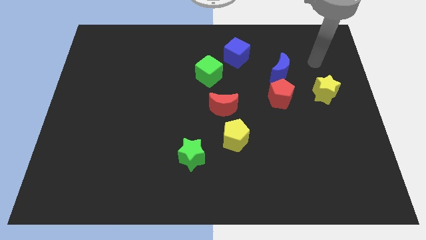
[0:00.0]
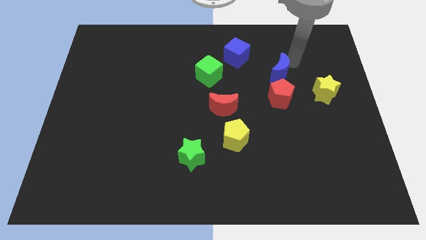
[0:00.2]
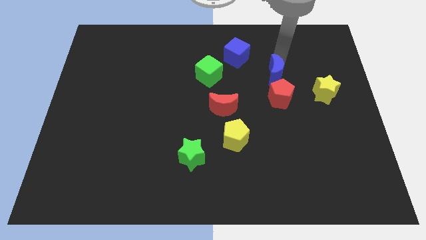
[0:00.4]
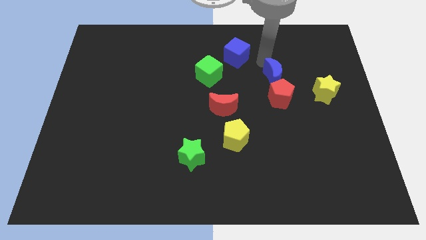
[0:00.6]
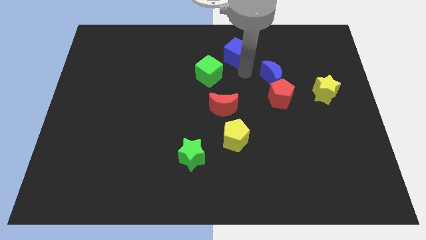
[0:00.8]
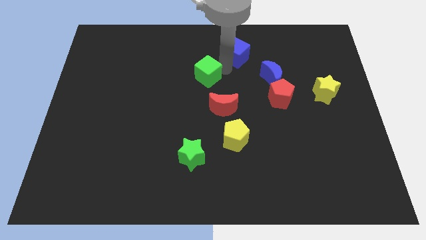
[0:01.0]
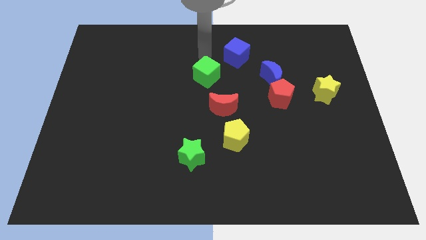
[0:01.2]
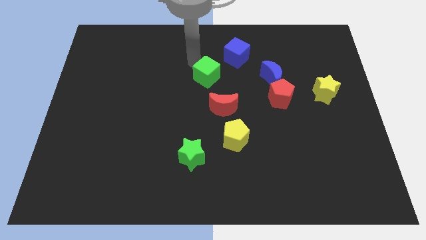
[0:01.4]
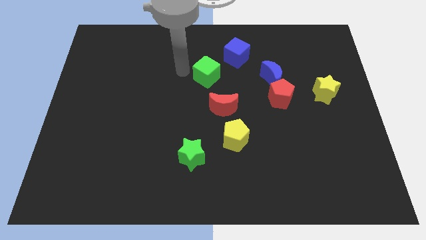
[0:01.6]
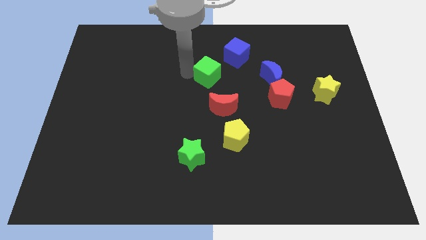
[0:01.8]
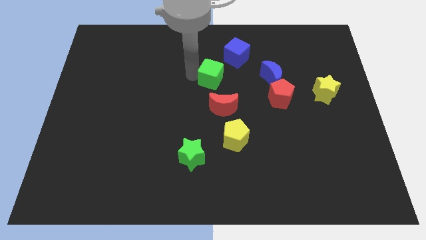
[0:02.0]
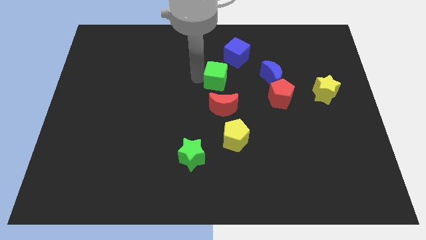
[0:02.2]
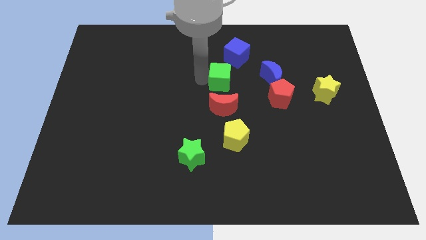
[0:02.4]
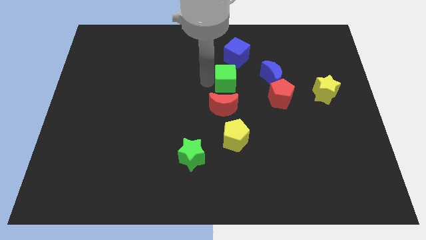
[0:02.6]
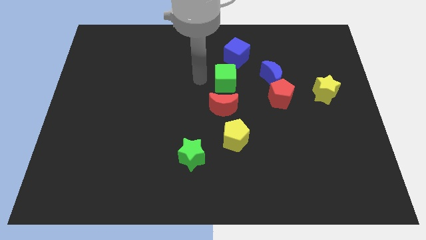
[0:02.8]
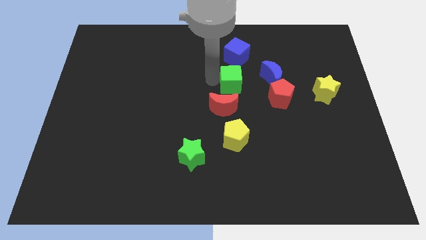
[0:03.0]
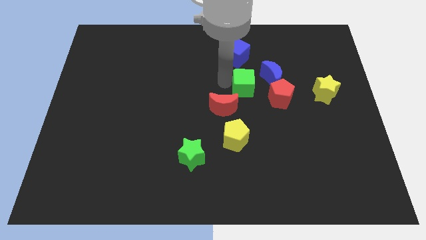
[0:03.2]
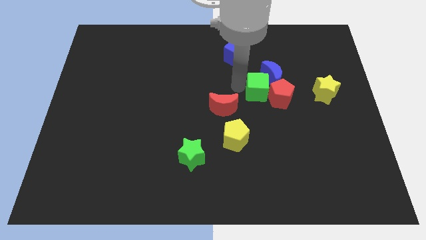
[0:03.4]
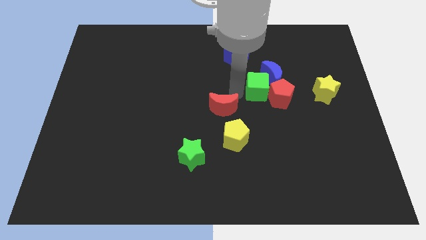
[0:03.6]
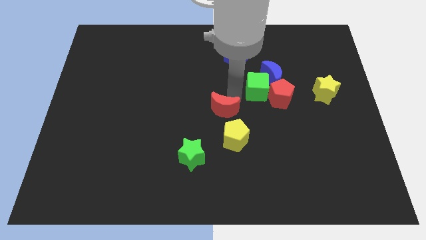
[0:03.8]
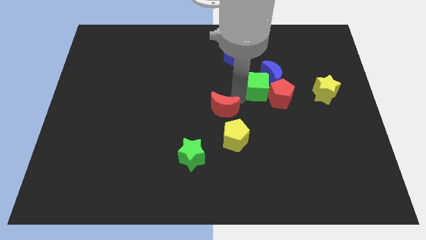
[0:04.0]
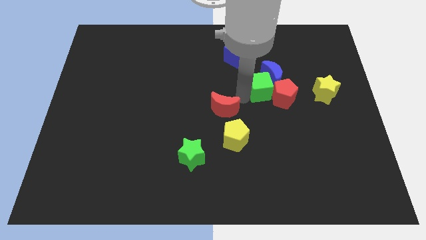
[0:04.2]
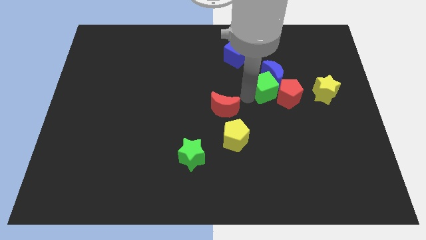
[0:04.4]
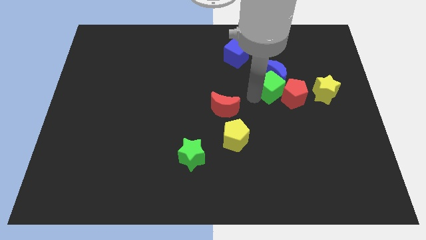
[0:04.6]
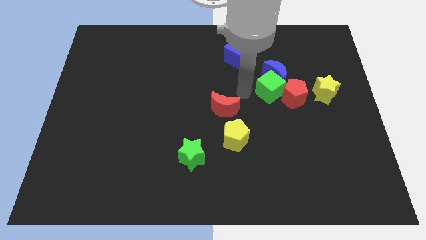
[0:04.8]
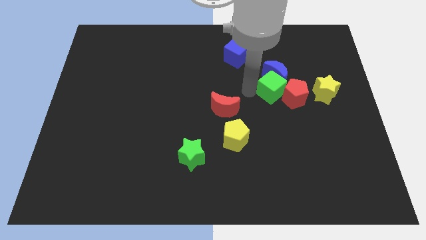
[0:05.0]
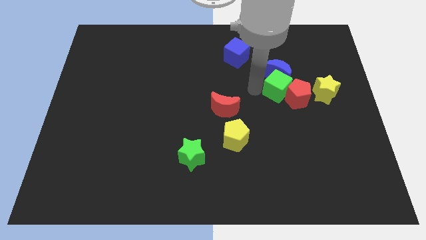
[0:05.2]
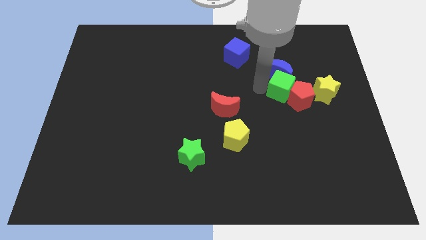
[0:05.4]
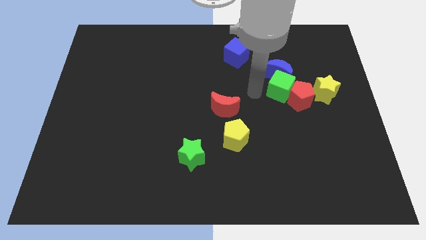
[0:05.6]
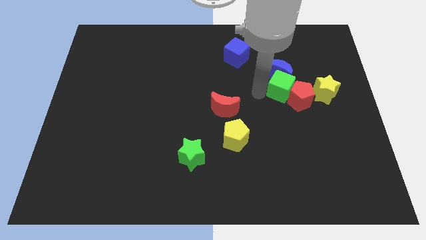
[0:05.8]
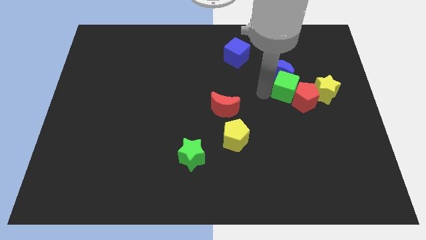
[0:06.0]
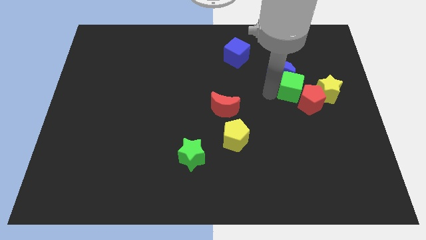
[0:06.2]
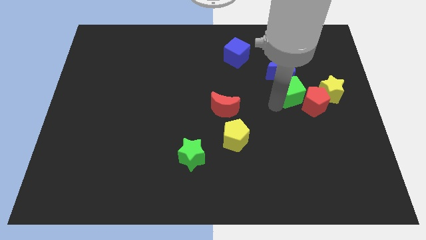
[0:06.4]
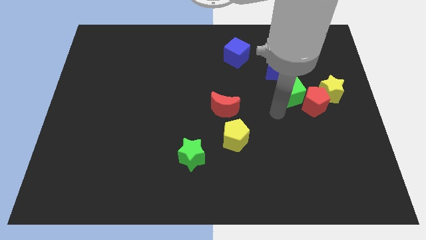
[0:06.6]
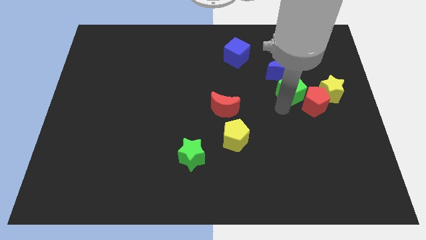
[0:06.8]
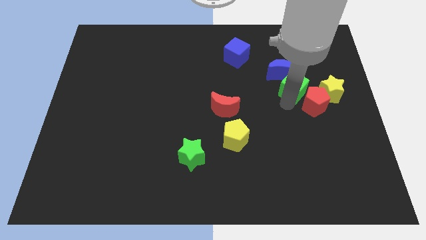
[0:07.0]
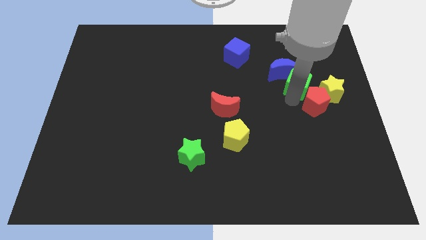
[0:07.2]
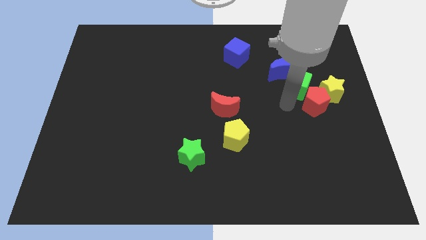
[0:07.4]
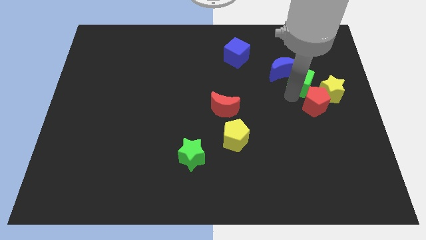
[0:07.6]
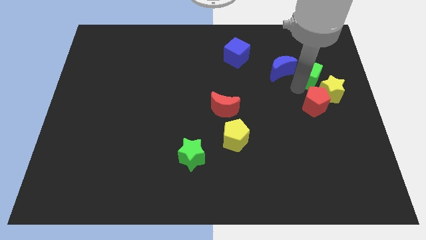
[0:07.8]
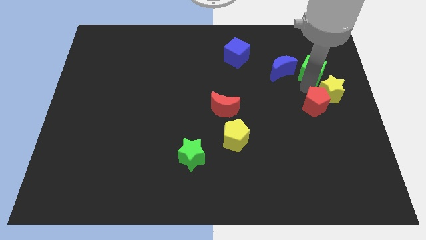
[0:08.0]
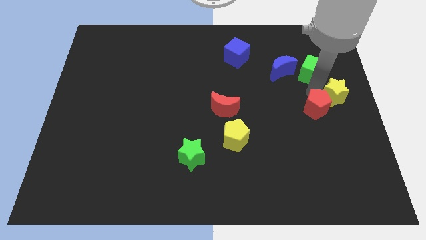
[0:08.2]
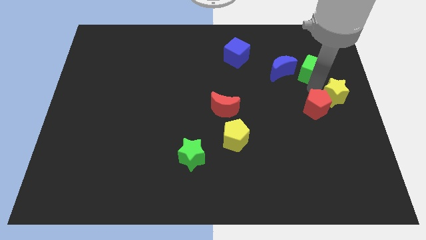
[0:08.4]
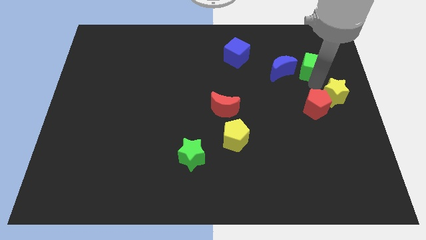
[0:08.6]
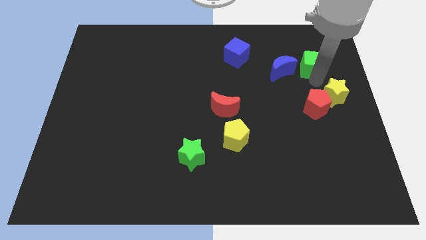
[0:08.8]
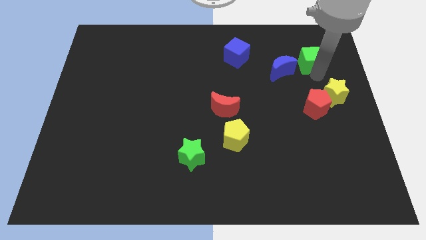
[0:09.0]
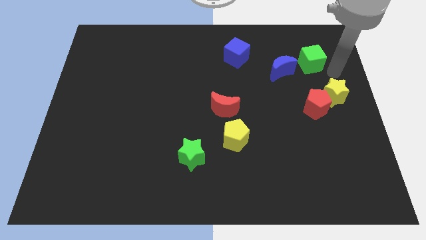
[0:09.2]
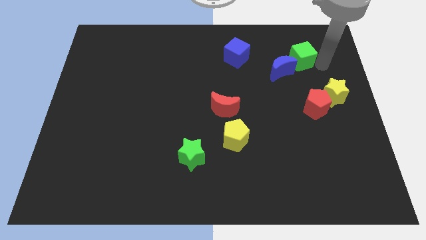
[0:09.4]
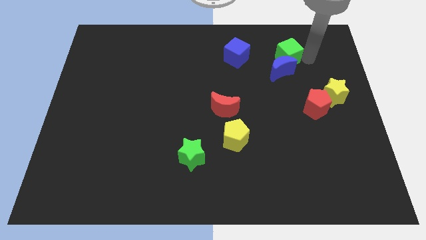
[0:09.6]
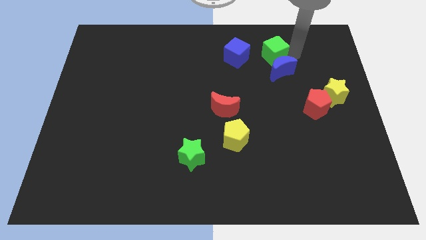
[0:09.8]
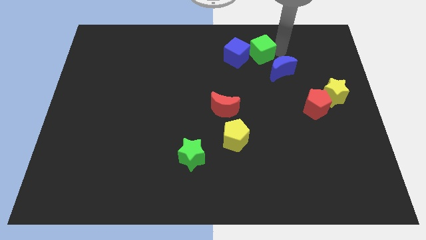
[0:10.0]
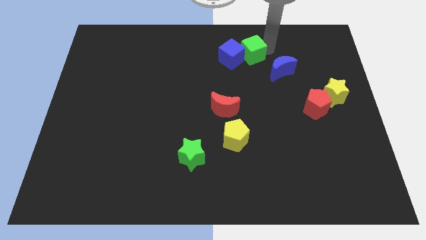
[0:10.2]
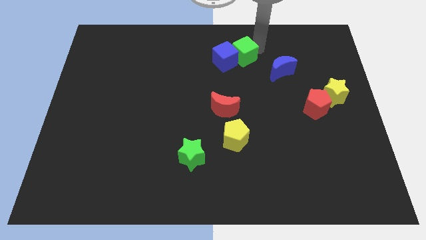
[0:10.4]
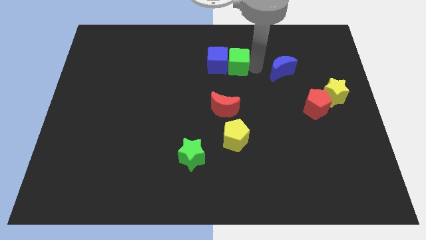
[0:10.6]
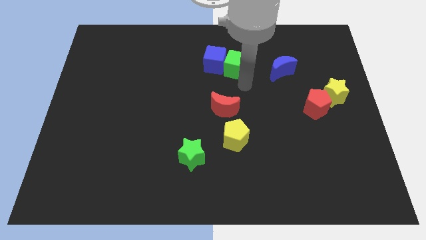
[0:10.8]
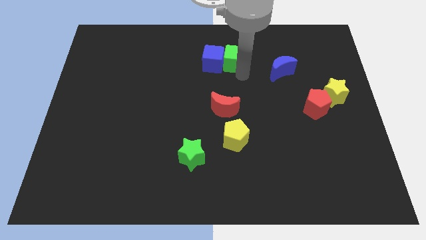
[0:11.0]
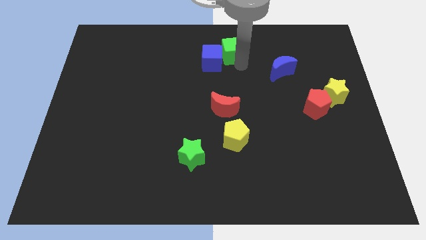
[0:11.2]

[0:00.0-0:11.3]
put the green cube to the towards your base
